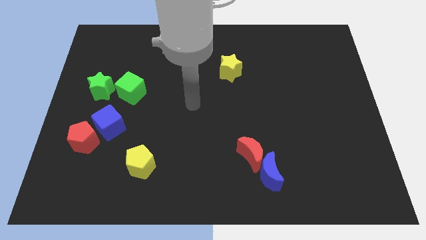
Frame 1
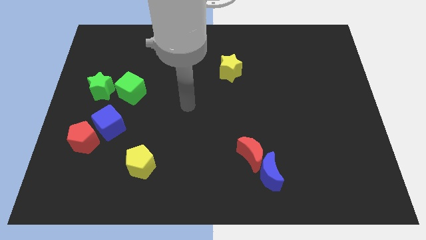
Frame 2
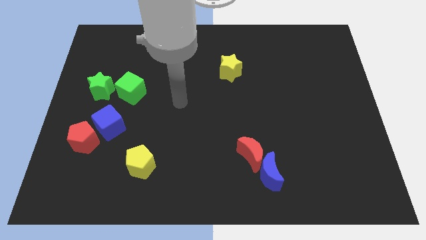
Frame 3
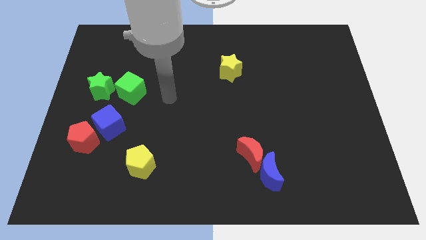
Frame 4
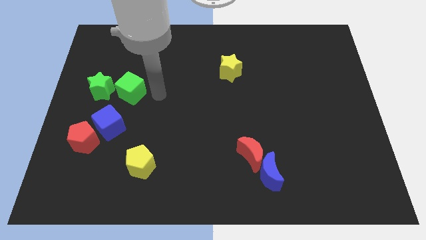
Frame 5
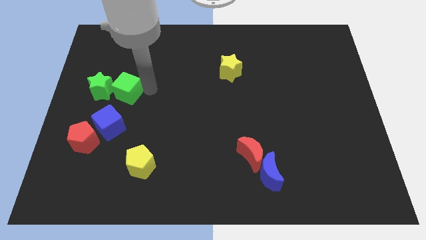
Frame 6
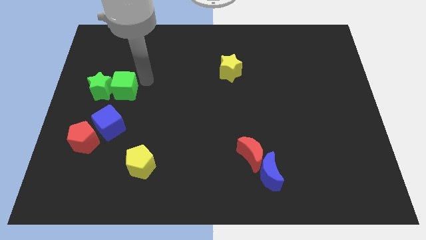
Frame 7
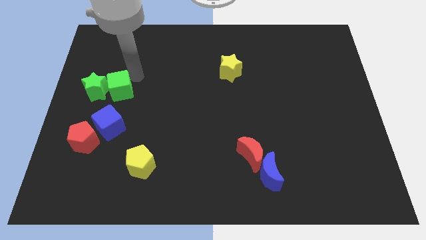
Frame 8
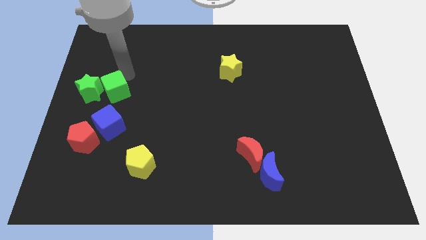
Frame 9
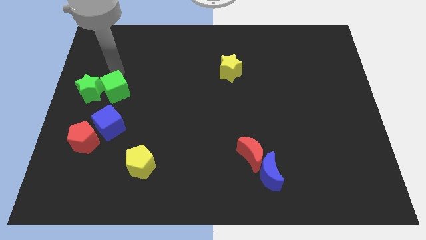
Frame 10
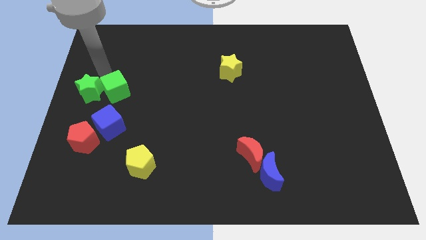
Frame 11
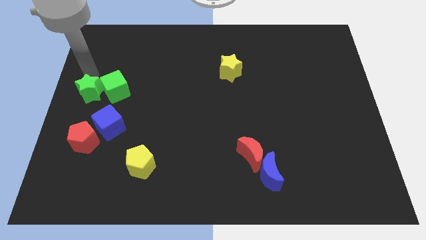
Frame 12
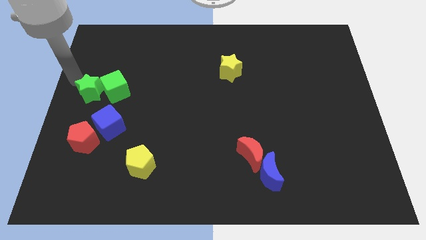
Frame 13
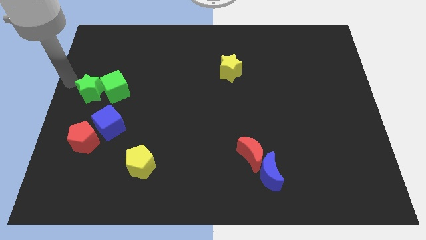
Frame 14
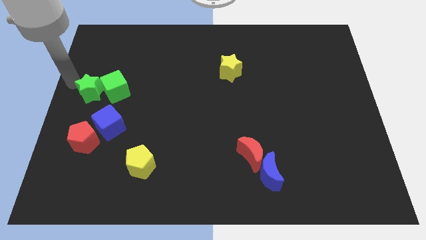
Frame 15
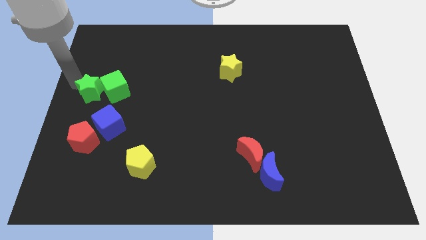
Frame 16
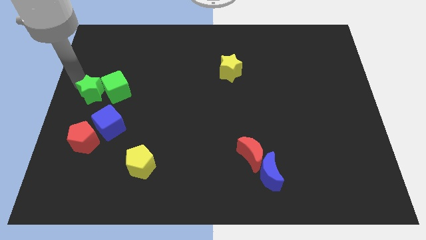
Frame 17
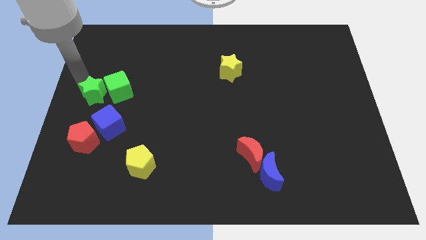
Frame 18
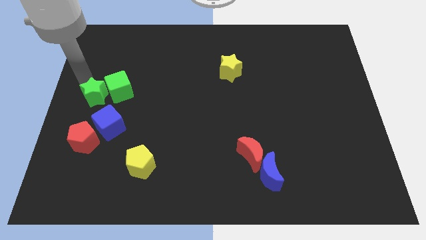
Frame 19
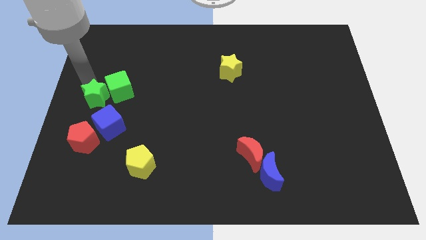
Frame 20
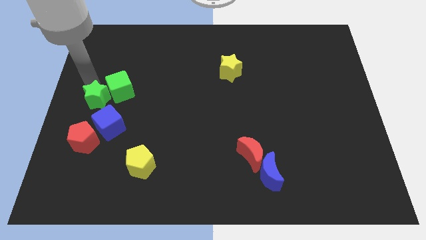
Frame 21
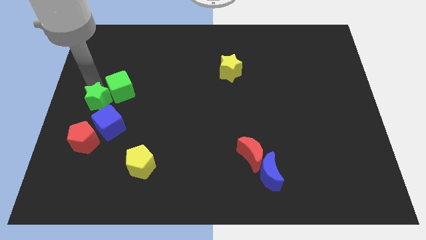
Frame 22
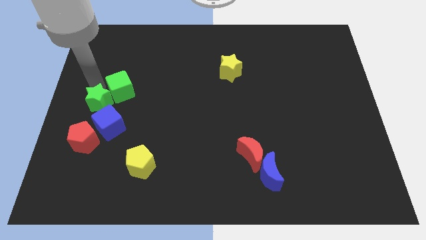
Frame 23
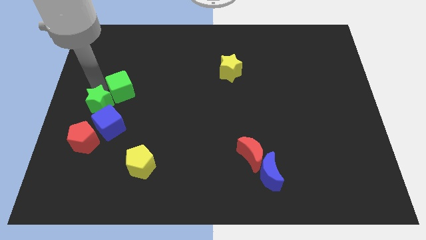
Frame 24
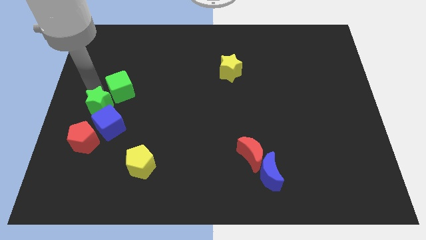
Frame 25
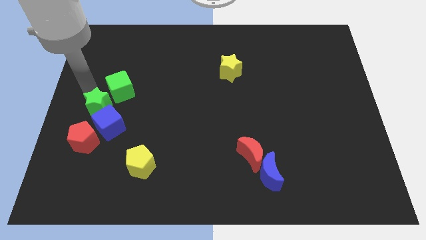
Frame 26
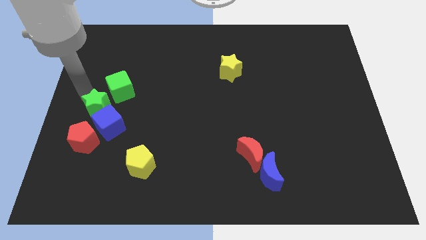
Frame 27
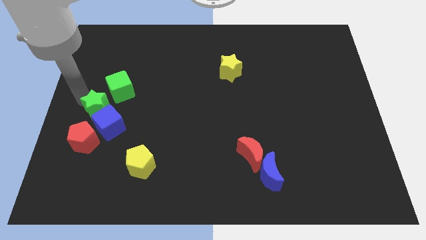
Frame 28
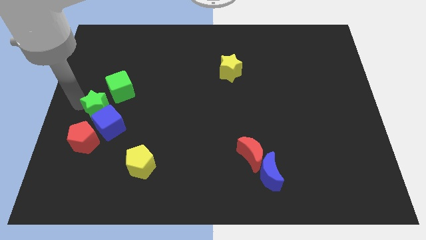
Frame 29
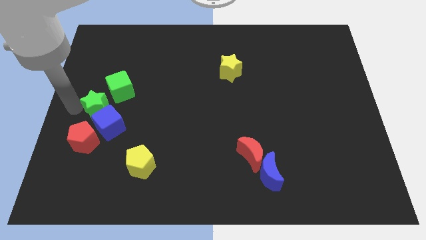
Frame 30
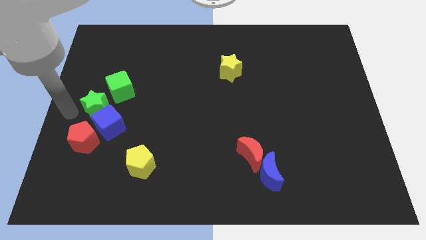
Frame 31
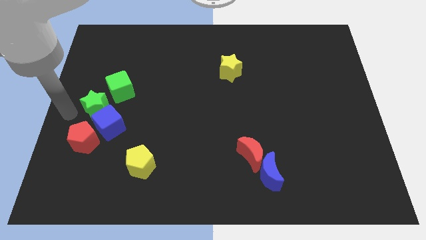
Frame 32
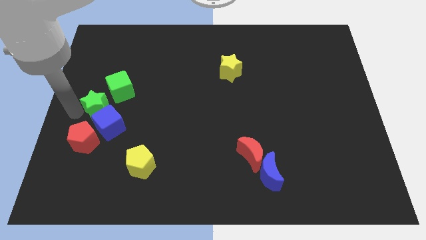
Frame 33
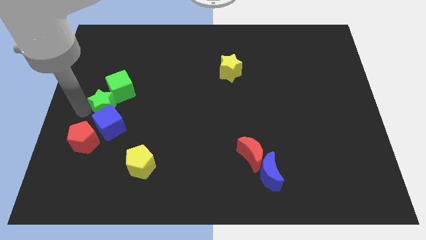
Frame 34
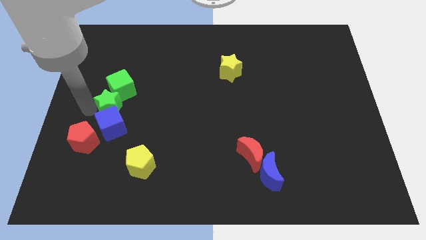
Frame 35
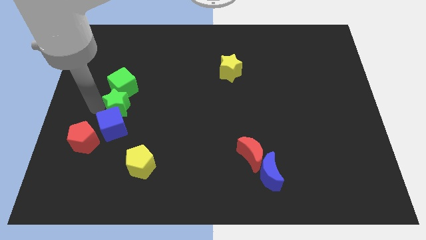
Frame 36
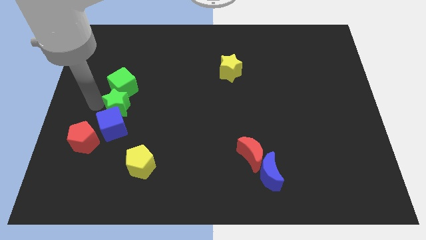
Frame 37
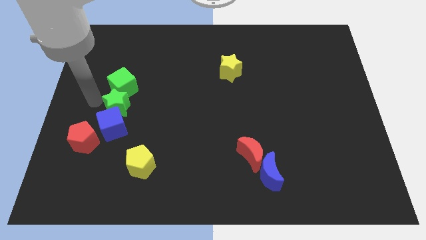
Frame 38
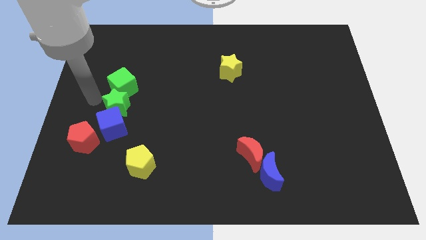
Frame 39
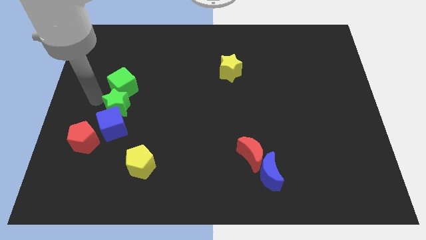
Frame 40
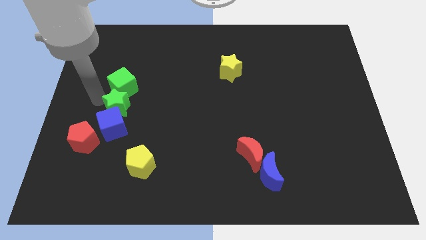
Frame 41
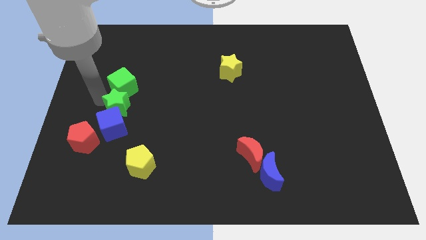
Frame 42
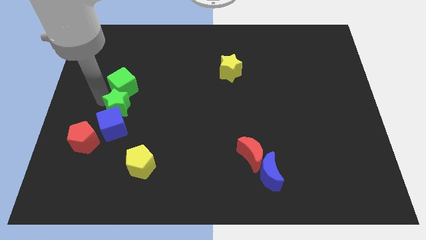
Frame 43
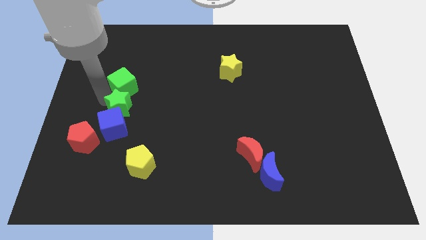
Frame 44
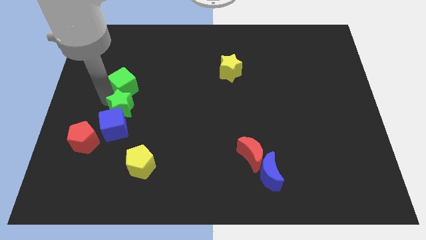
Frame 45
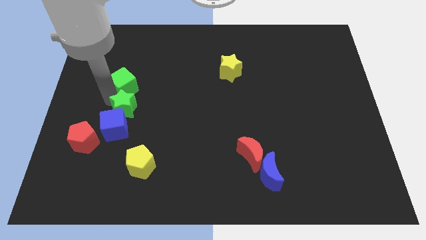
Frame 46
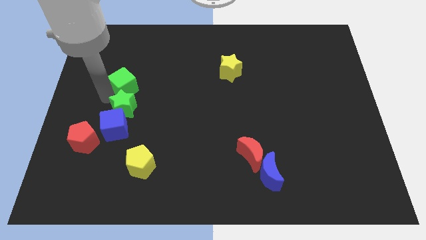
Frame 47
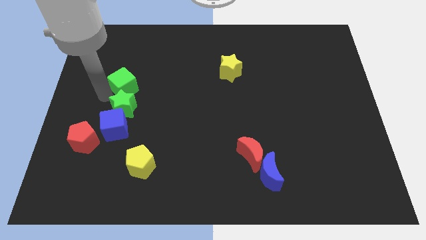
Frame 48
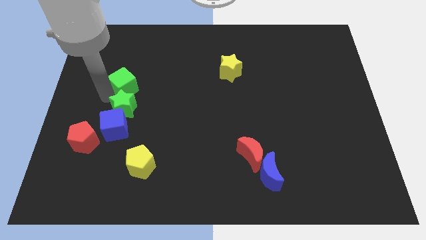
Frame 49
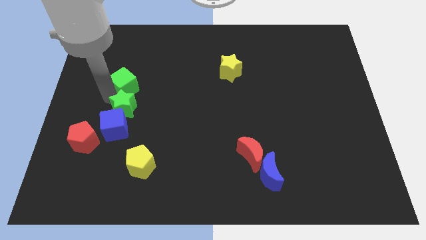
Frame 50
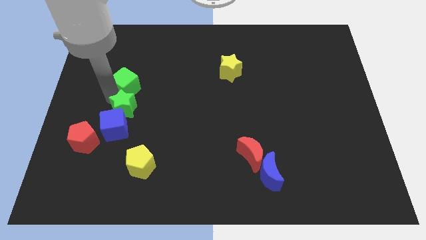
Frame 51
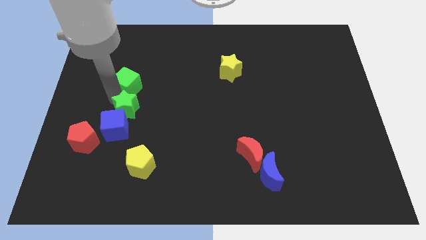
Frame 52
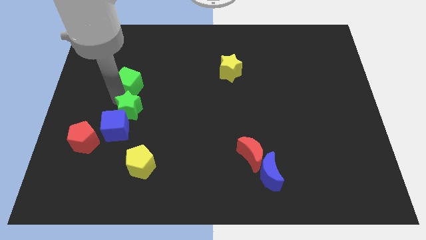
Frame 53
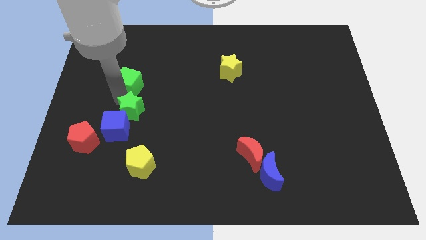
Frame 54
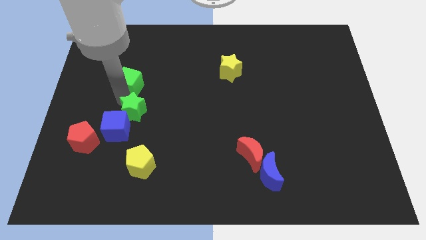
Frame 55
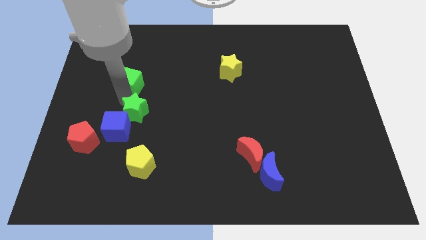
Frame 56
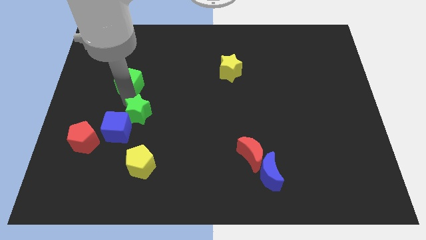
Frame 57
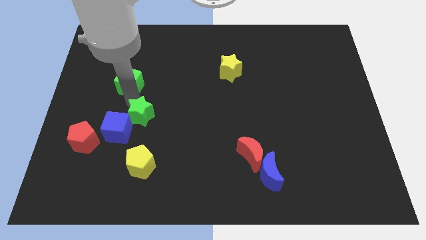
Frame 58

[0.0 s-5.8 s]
slide the green star to the right side of the blue cube

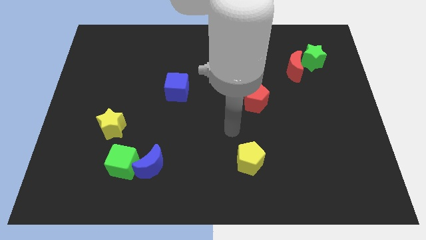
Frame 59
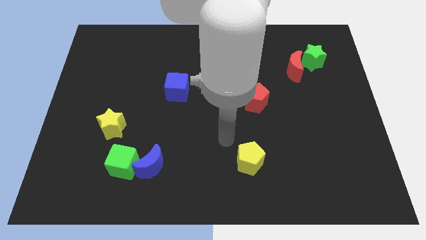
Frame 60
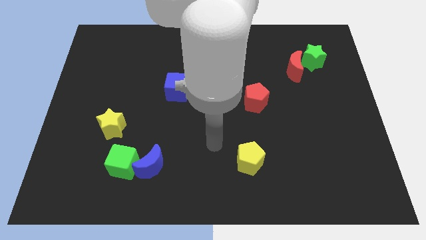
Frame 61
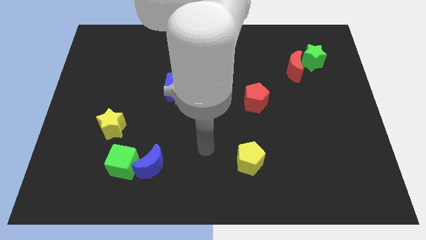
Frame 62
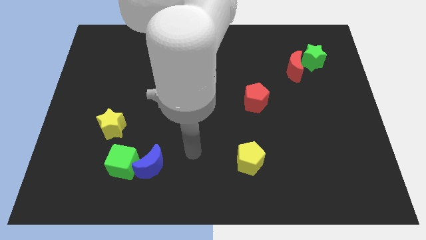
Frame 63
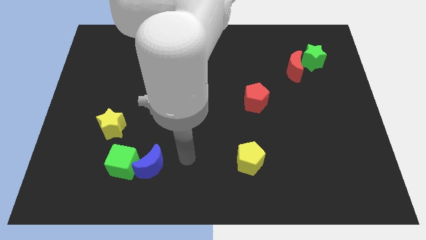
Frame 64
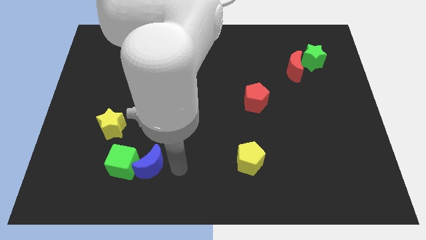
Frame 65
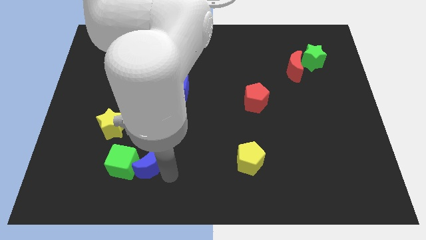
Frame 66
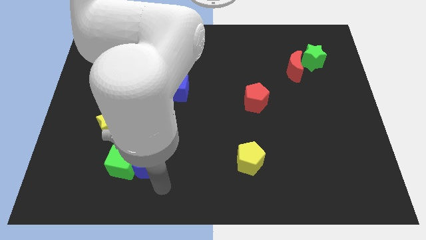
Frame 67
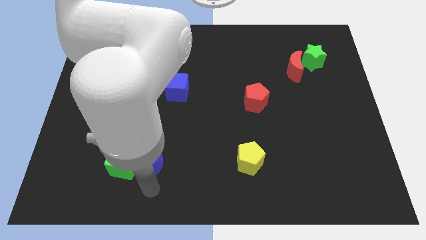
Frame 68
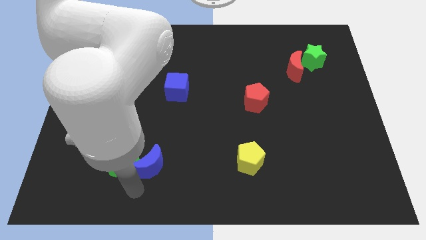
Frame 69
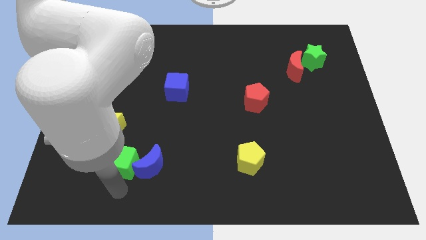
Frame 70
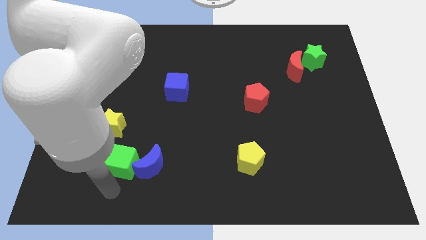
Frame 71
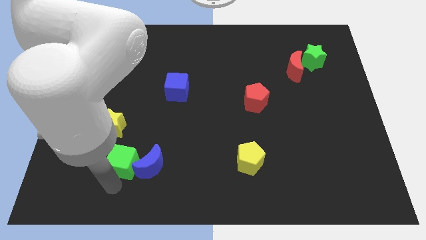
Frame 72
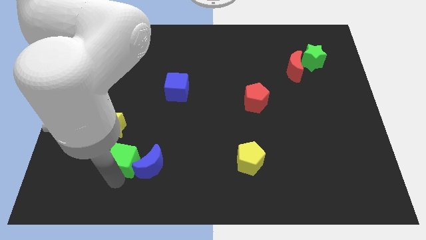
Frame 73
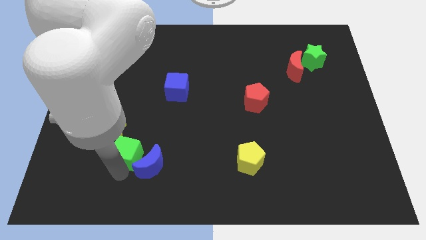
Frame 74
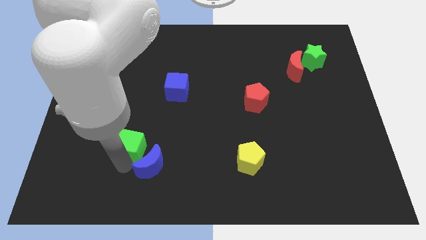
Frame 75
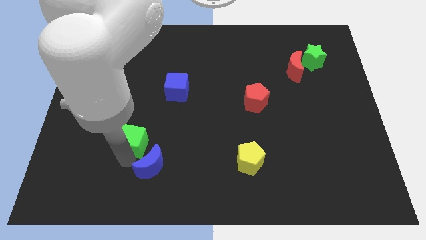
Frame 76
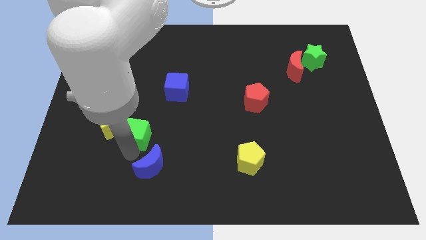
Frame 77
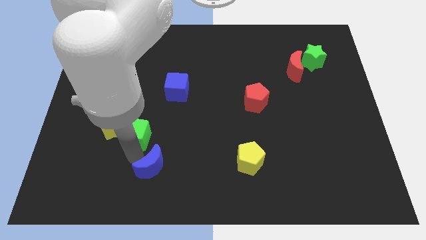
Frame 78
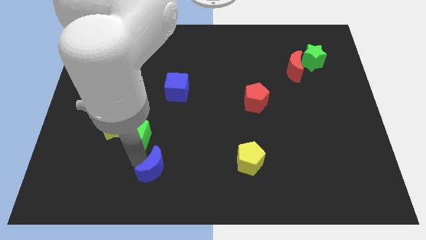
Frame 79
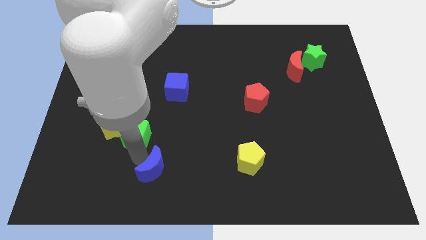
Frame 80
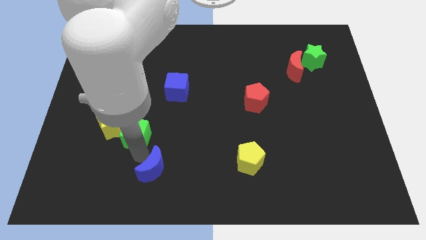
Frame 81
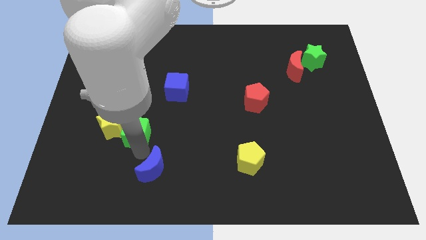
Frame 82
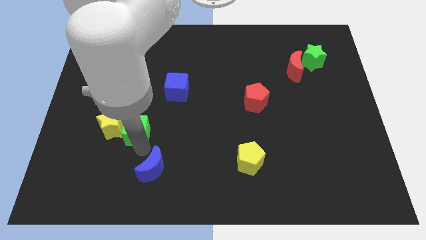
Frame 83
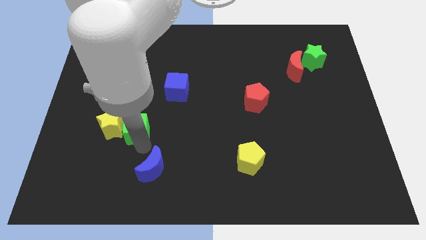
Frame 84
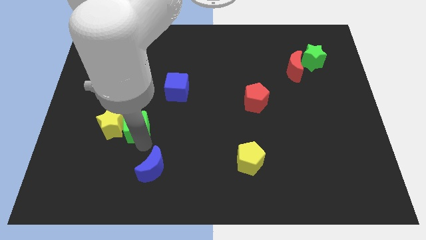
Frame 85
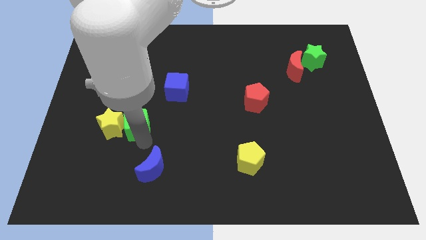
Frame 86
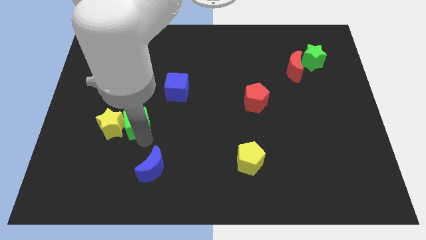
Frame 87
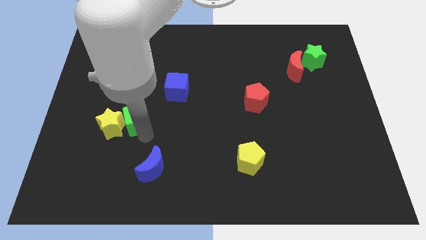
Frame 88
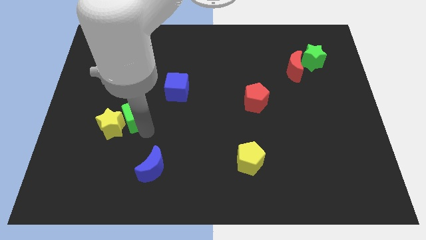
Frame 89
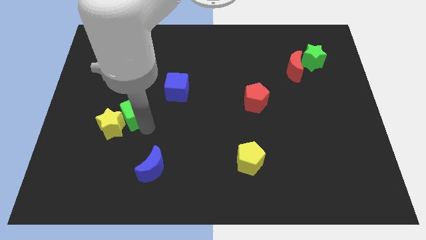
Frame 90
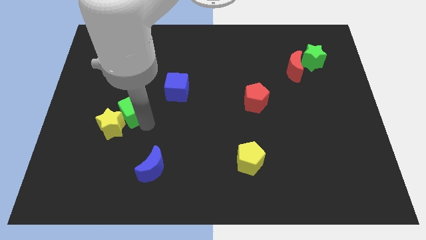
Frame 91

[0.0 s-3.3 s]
move the green cube to the top of the yellow star
